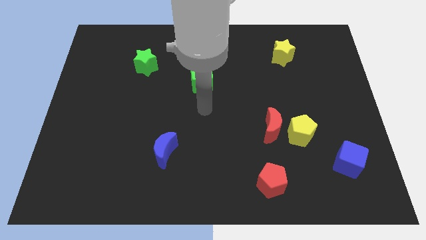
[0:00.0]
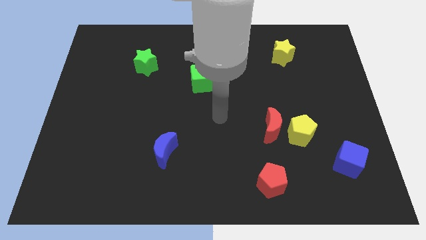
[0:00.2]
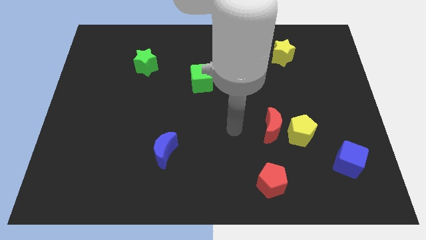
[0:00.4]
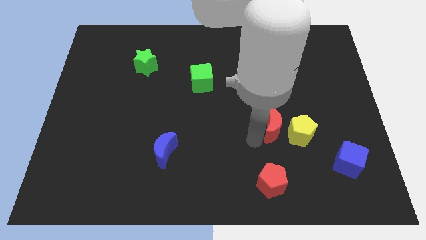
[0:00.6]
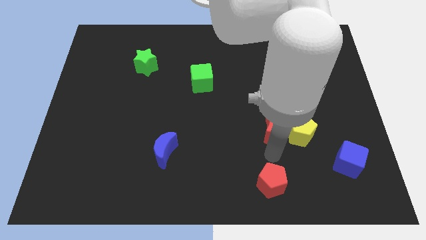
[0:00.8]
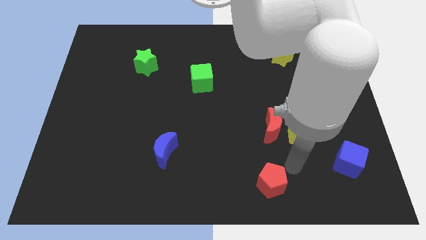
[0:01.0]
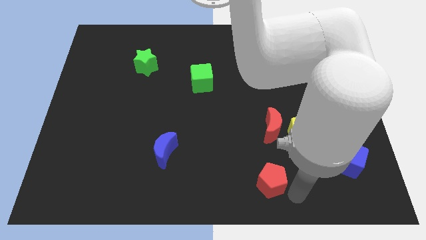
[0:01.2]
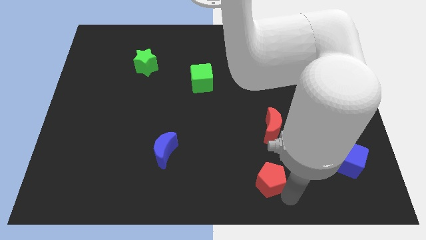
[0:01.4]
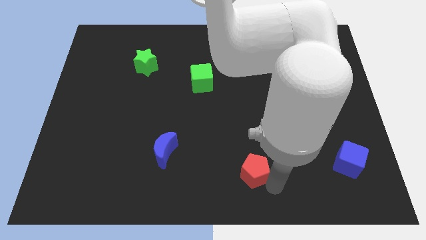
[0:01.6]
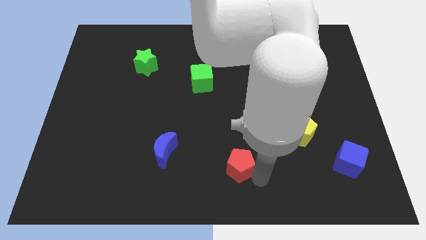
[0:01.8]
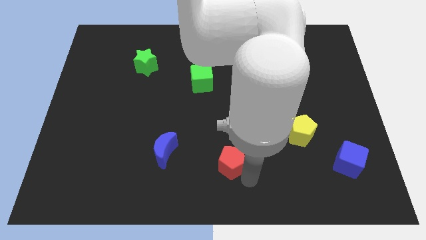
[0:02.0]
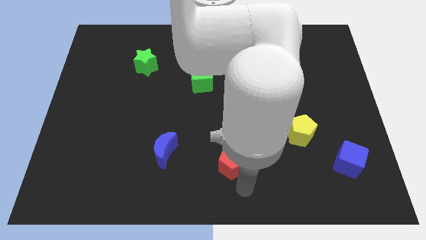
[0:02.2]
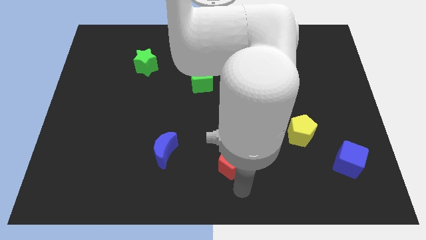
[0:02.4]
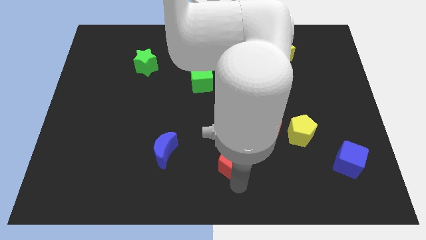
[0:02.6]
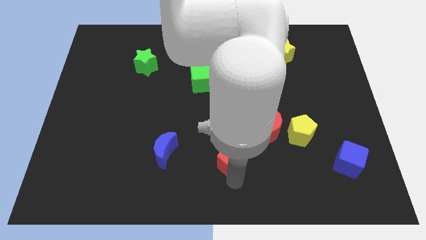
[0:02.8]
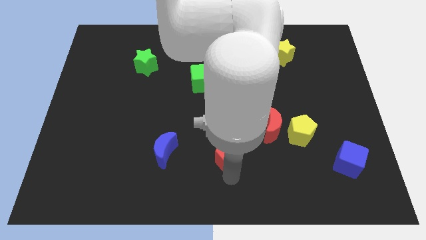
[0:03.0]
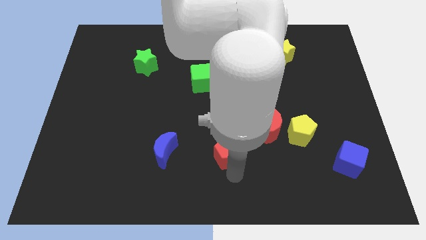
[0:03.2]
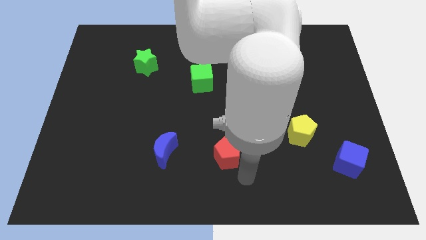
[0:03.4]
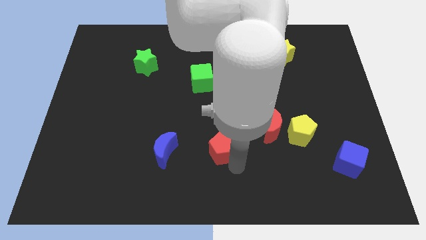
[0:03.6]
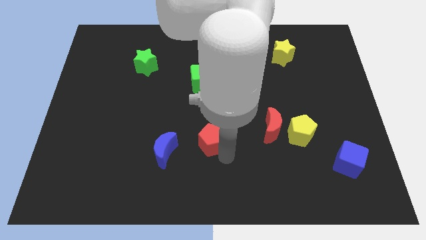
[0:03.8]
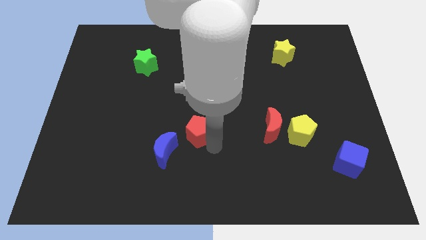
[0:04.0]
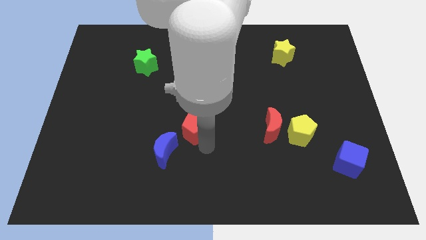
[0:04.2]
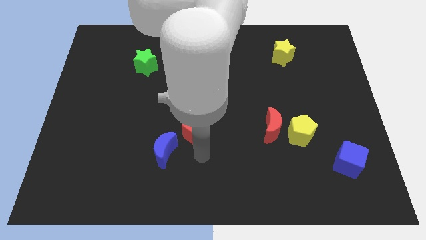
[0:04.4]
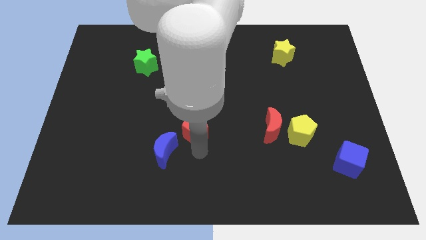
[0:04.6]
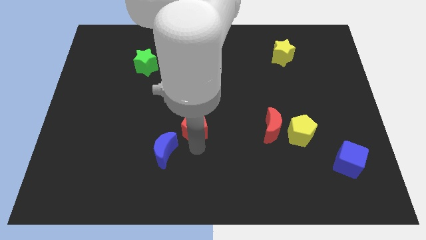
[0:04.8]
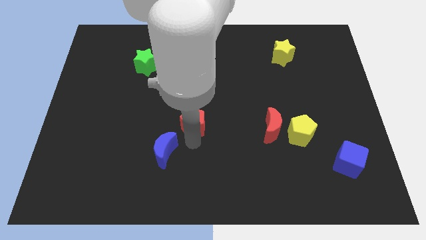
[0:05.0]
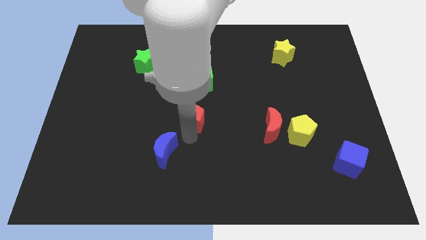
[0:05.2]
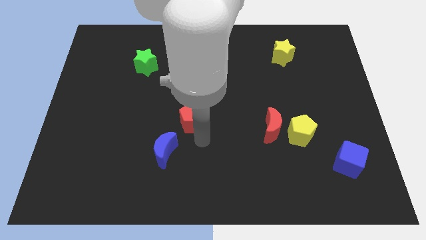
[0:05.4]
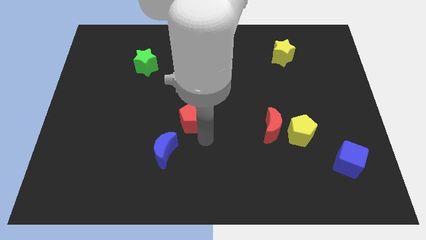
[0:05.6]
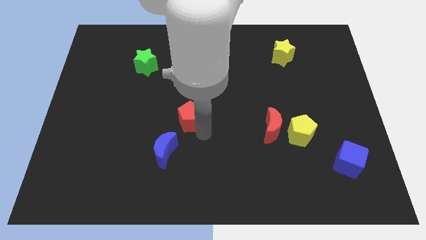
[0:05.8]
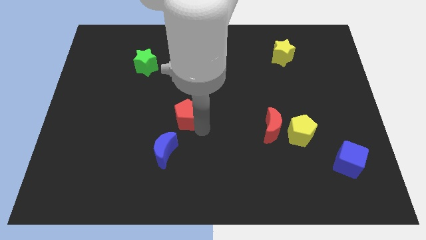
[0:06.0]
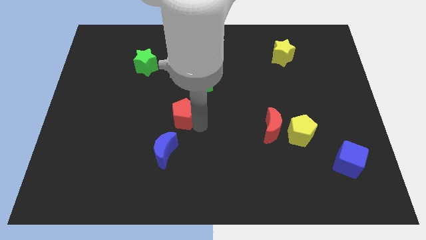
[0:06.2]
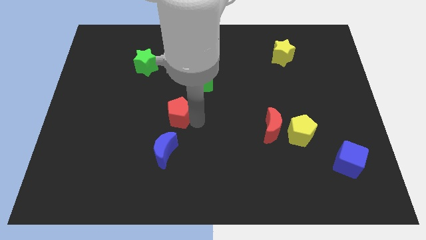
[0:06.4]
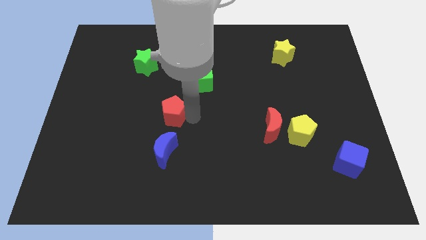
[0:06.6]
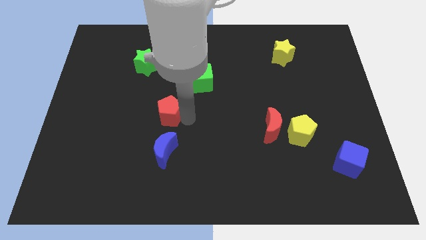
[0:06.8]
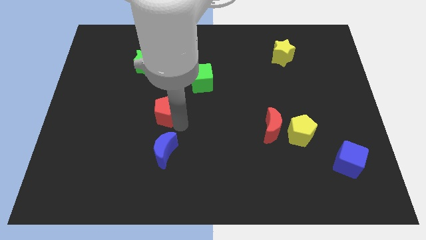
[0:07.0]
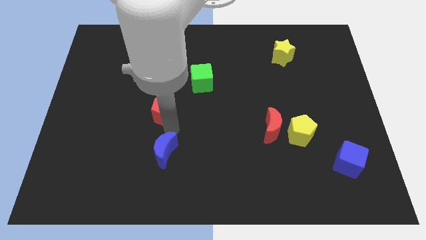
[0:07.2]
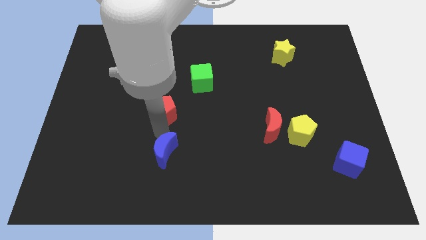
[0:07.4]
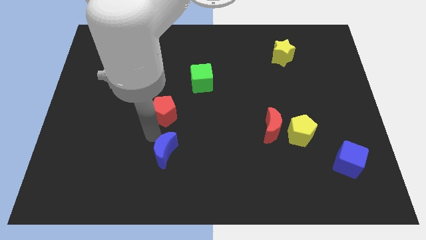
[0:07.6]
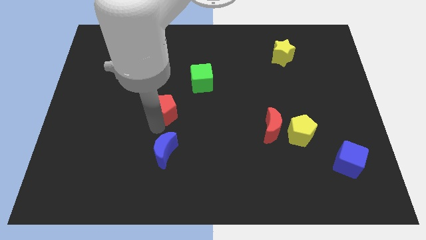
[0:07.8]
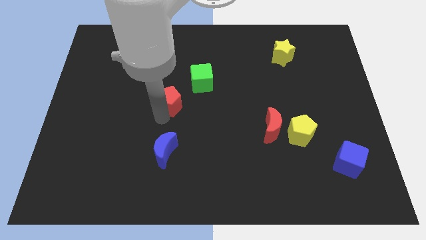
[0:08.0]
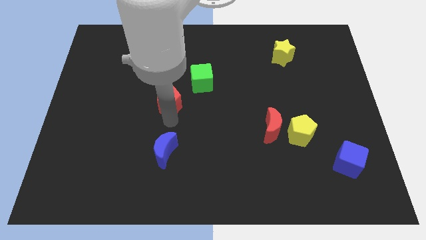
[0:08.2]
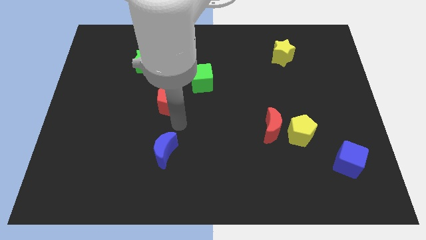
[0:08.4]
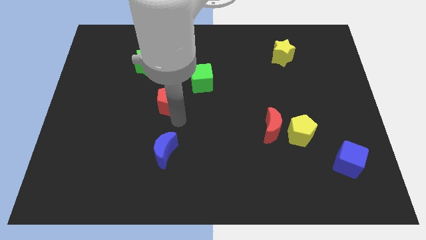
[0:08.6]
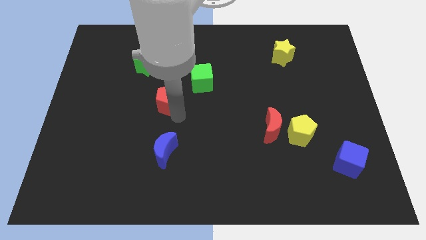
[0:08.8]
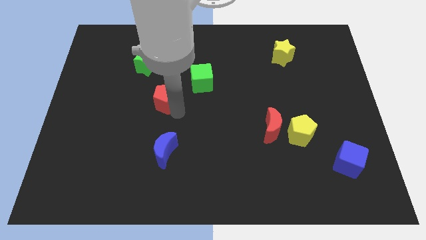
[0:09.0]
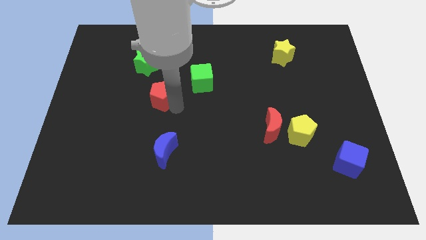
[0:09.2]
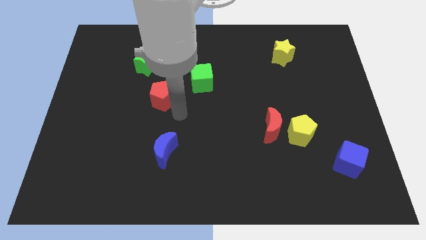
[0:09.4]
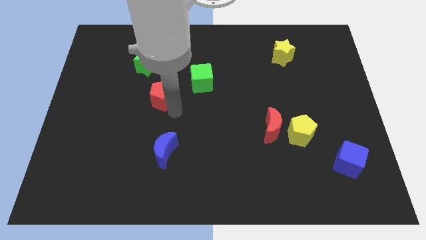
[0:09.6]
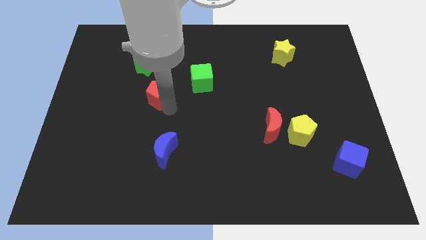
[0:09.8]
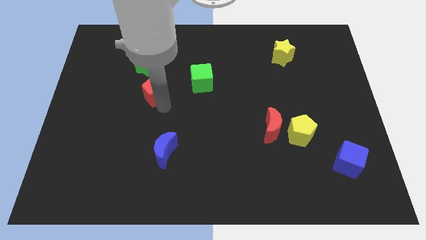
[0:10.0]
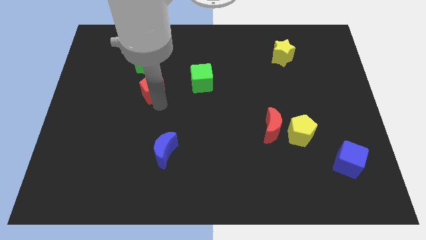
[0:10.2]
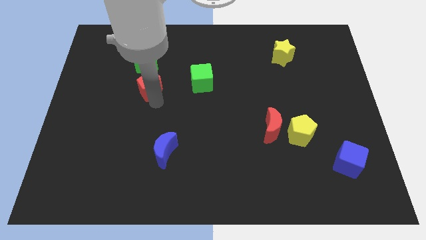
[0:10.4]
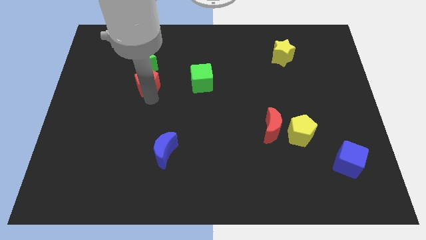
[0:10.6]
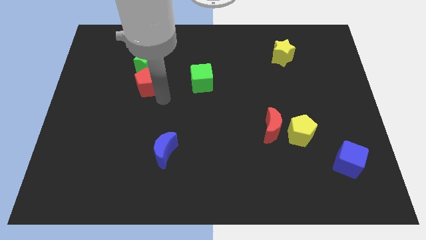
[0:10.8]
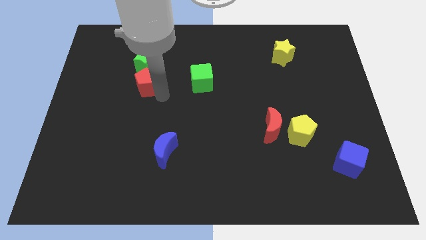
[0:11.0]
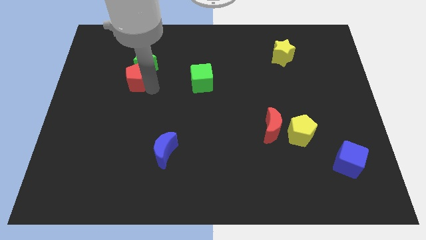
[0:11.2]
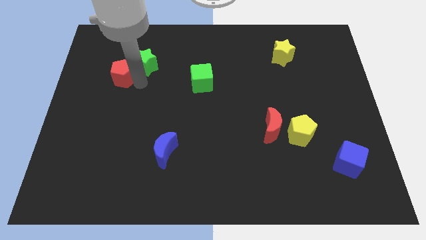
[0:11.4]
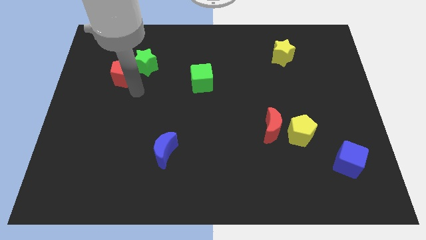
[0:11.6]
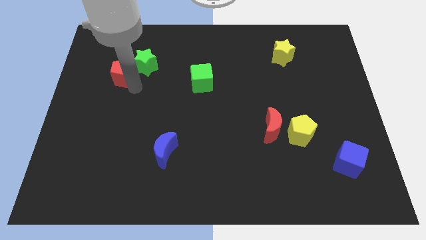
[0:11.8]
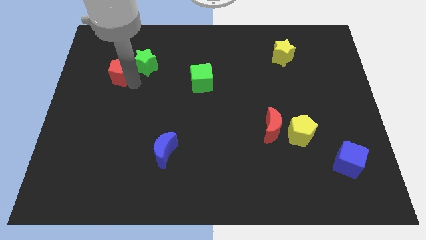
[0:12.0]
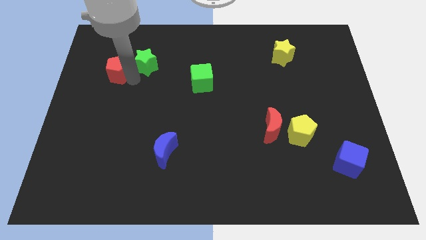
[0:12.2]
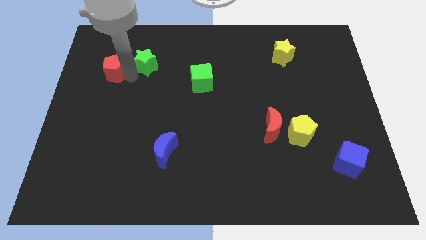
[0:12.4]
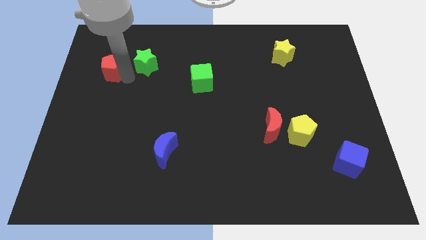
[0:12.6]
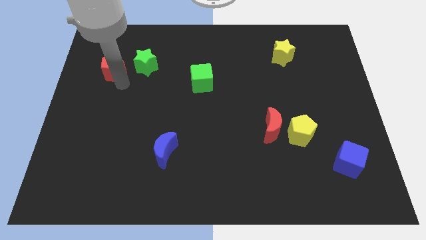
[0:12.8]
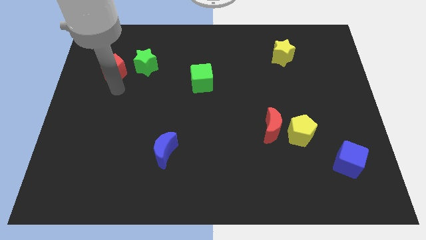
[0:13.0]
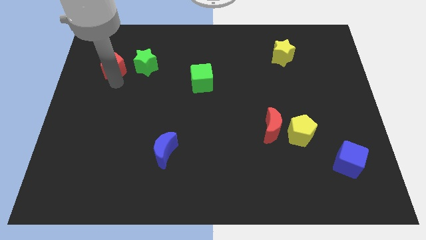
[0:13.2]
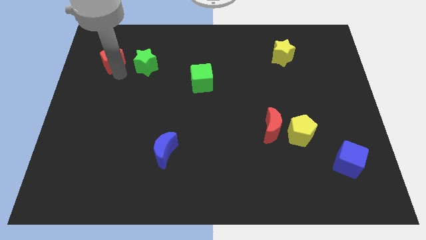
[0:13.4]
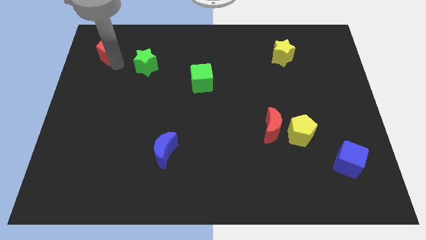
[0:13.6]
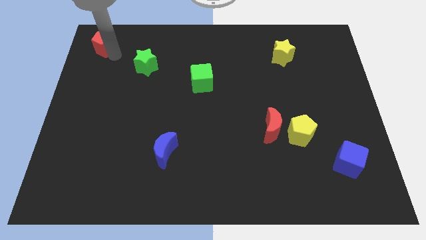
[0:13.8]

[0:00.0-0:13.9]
push the red pentagon to the upper left corner
